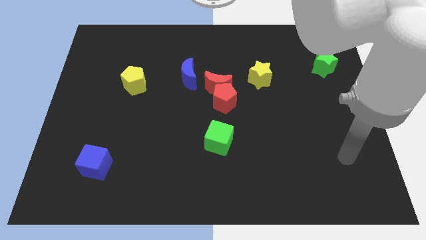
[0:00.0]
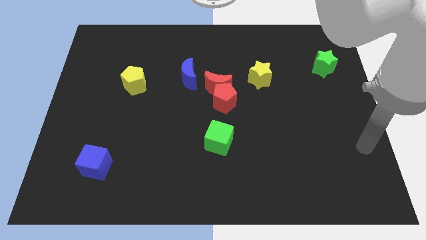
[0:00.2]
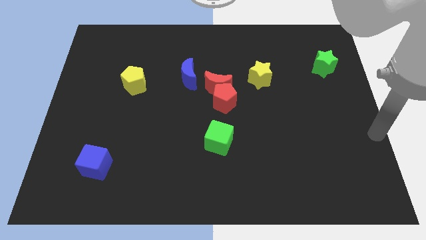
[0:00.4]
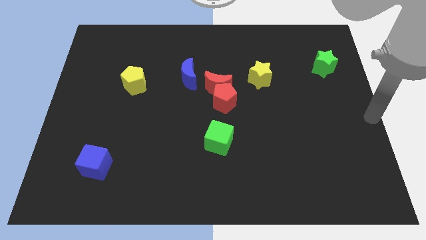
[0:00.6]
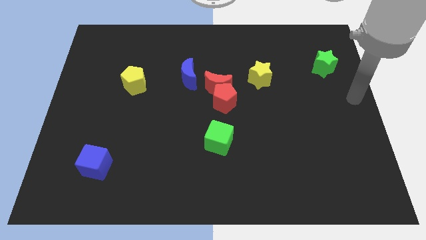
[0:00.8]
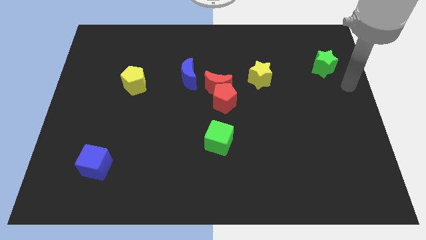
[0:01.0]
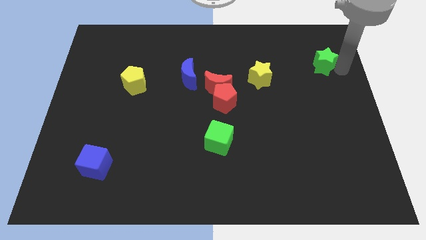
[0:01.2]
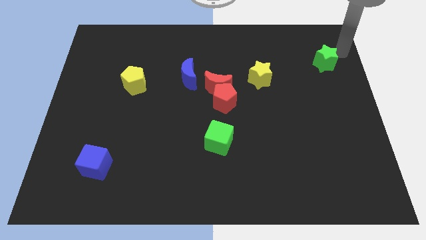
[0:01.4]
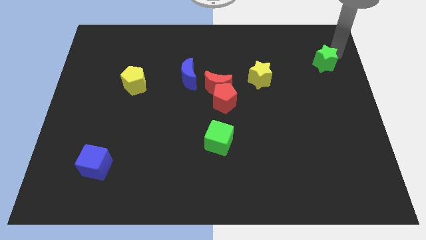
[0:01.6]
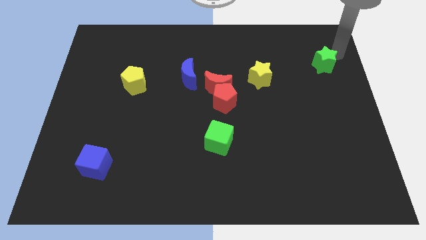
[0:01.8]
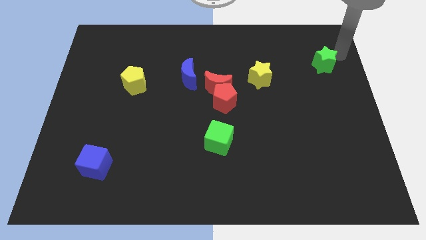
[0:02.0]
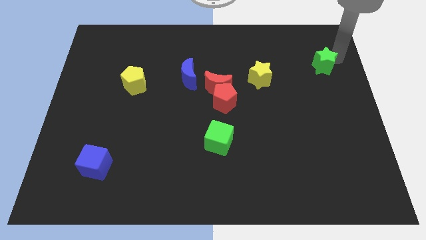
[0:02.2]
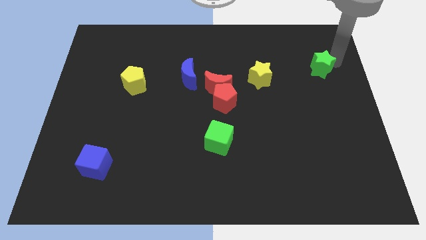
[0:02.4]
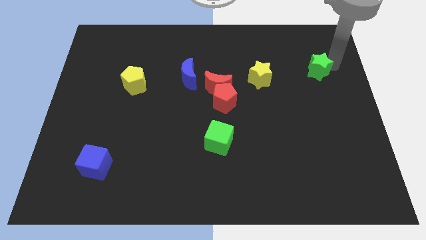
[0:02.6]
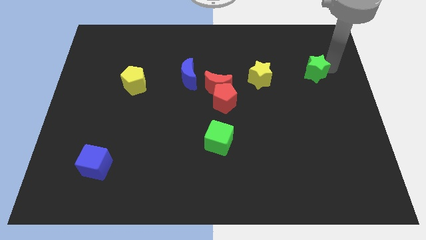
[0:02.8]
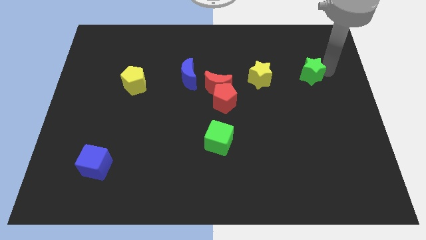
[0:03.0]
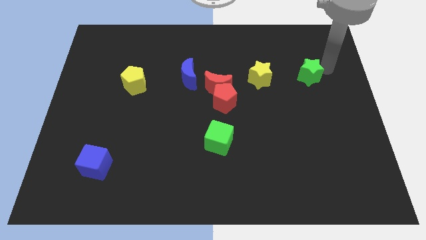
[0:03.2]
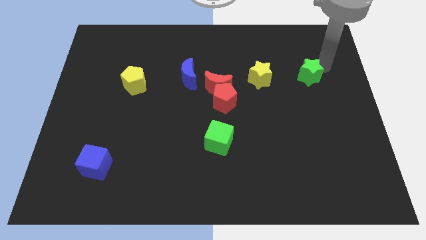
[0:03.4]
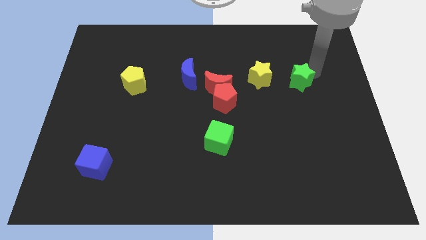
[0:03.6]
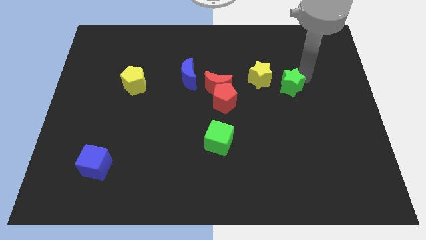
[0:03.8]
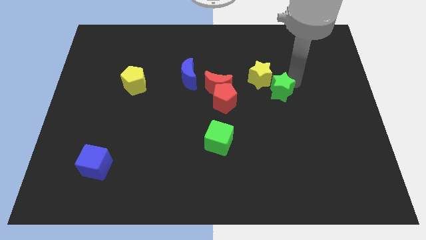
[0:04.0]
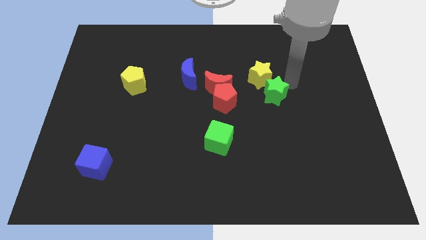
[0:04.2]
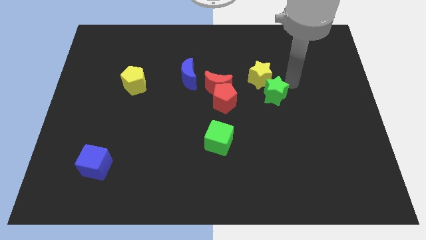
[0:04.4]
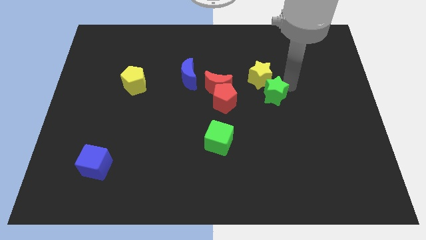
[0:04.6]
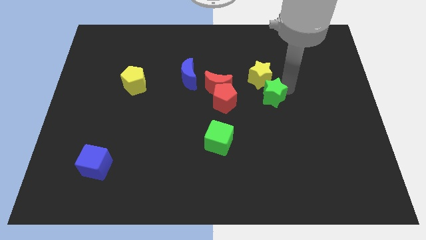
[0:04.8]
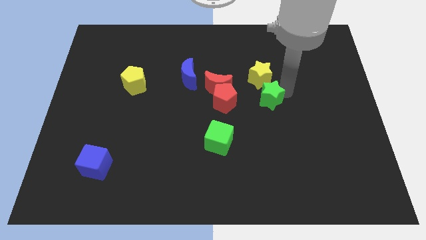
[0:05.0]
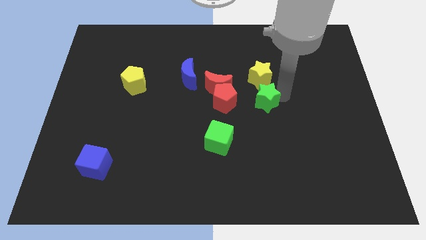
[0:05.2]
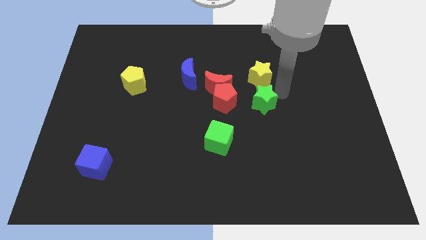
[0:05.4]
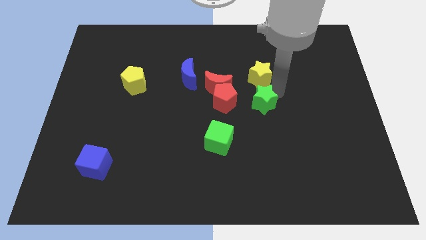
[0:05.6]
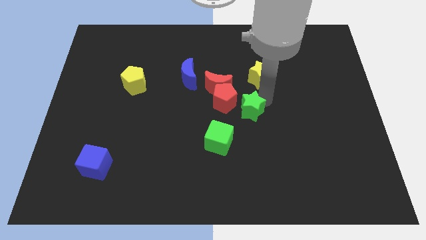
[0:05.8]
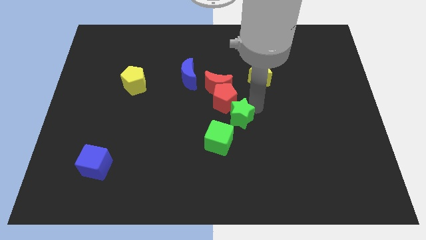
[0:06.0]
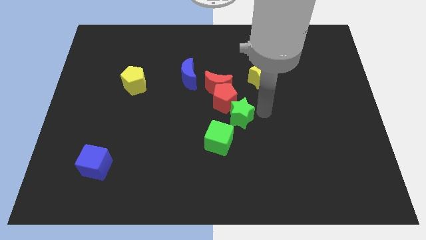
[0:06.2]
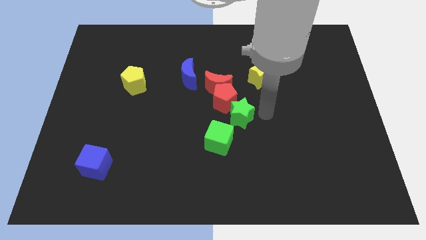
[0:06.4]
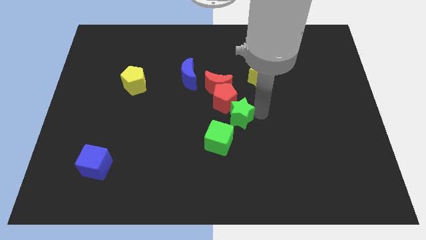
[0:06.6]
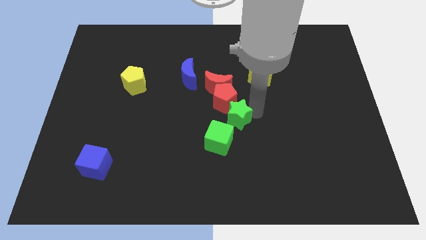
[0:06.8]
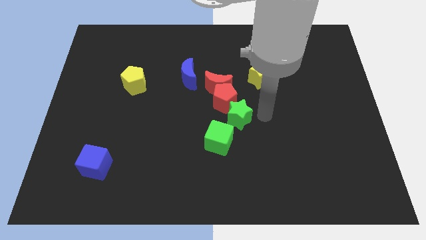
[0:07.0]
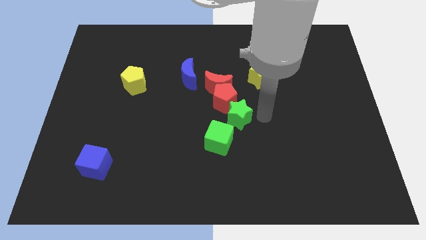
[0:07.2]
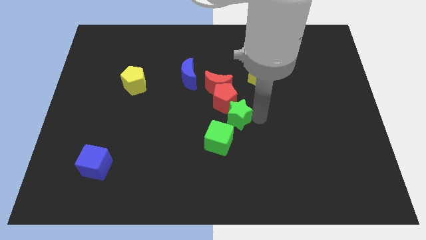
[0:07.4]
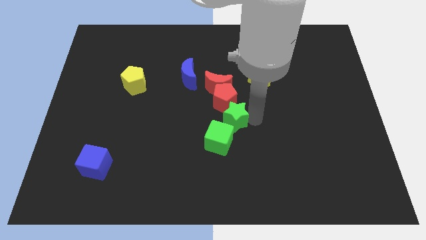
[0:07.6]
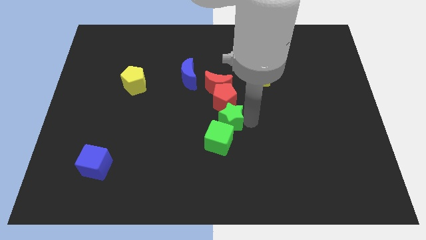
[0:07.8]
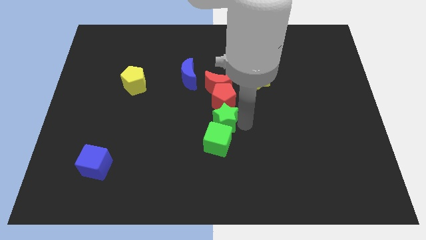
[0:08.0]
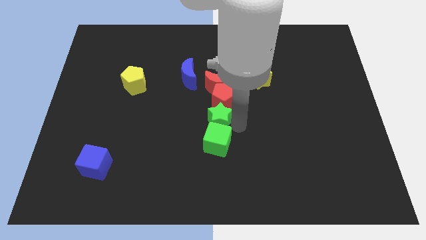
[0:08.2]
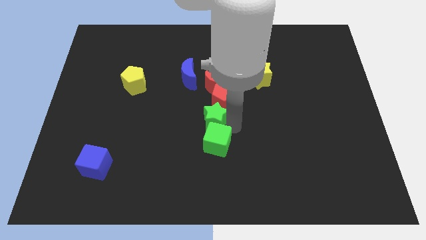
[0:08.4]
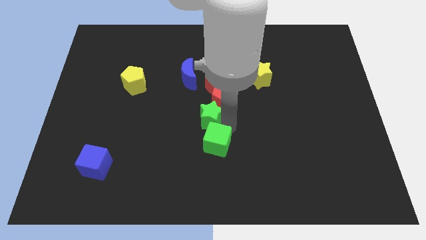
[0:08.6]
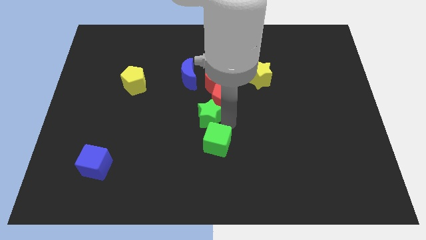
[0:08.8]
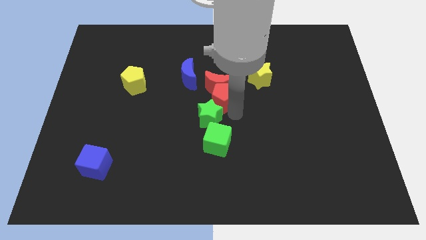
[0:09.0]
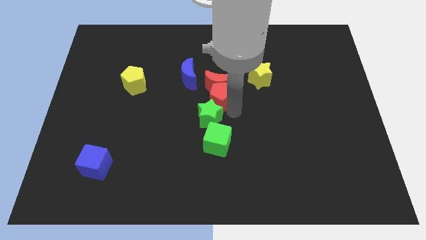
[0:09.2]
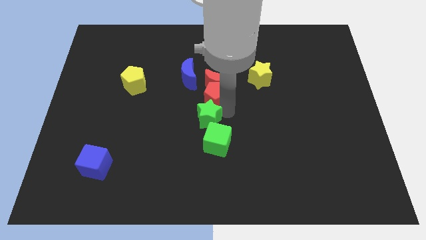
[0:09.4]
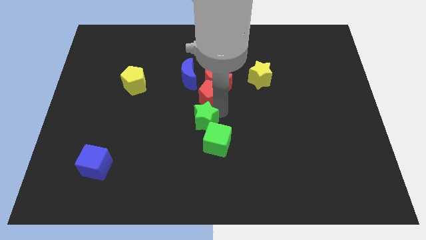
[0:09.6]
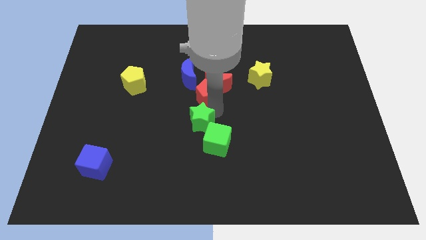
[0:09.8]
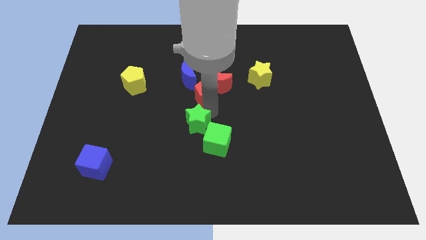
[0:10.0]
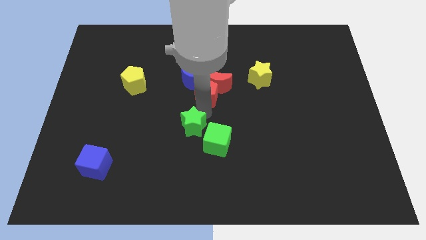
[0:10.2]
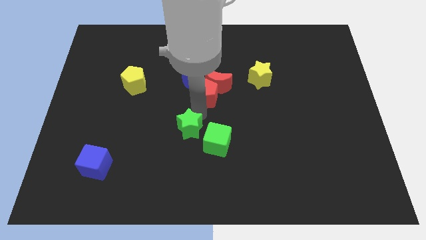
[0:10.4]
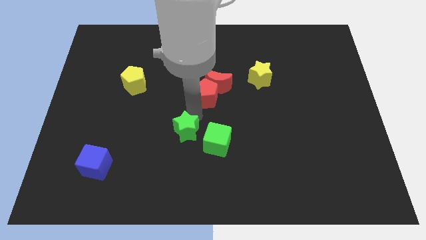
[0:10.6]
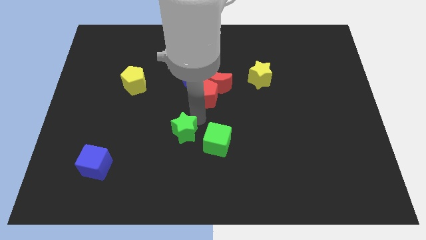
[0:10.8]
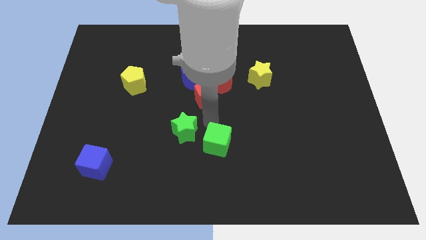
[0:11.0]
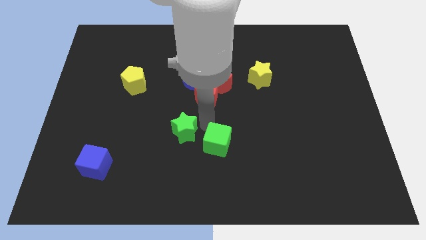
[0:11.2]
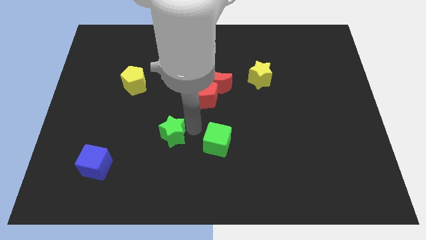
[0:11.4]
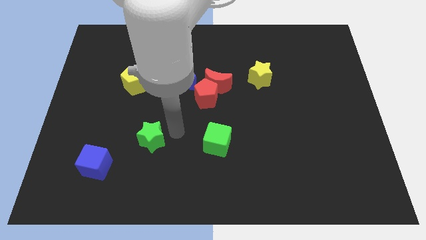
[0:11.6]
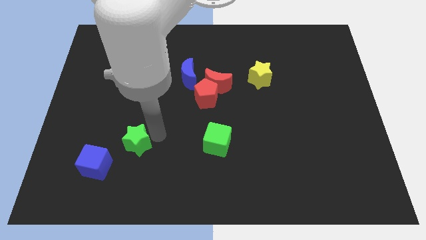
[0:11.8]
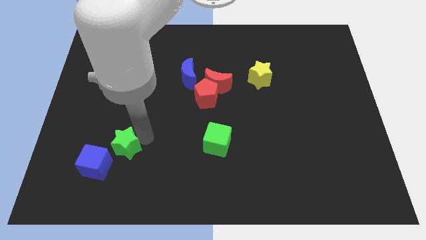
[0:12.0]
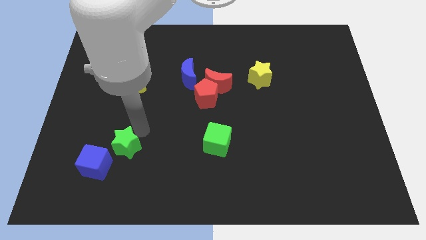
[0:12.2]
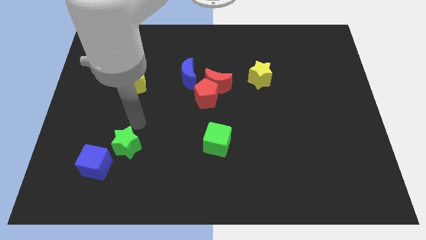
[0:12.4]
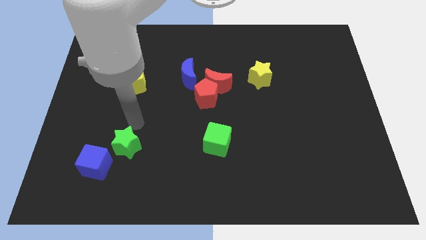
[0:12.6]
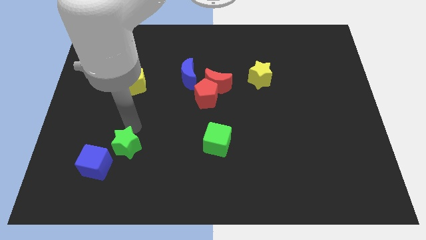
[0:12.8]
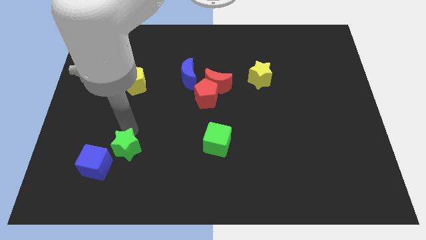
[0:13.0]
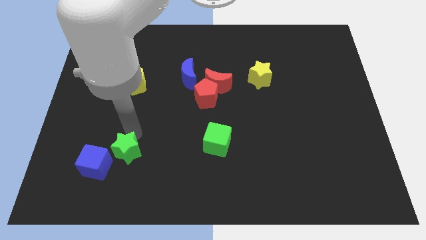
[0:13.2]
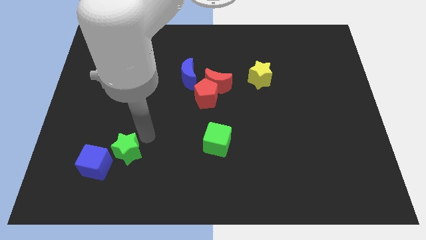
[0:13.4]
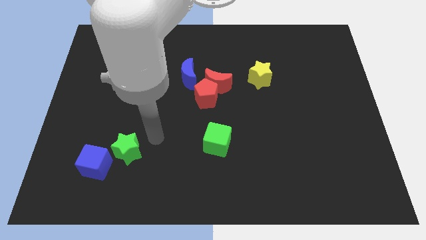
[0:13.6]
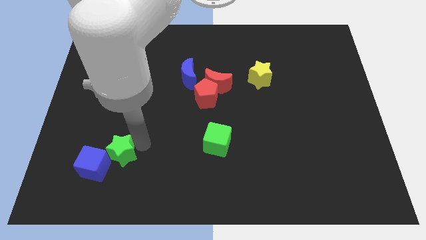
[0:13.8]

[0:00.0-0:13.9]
move the green star to the blue cube
